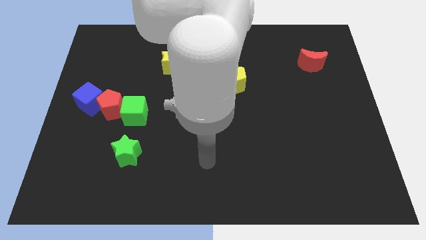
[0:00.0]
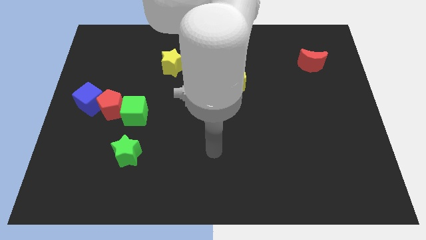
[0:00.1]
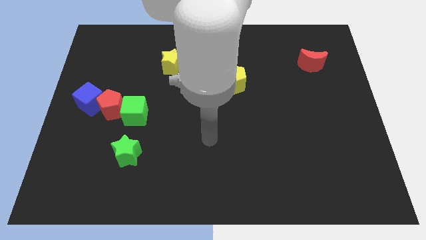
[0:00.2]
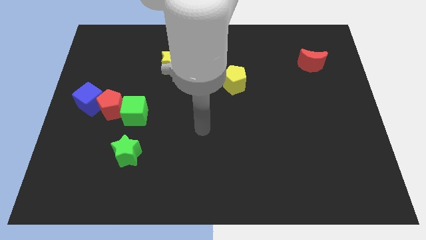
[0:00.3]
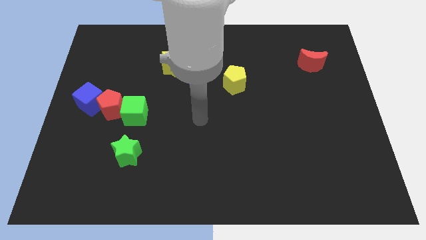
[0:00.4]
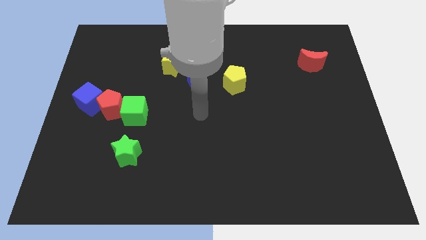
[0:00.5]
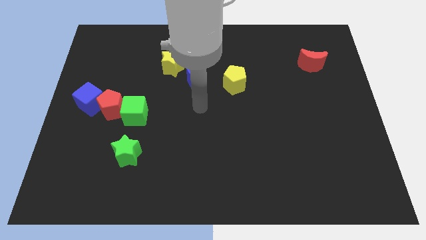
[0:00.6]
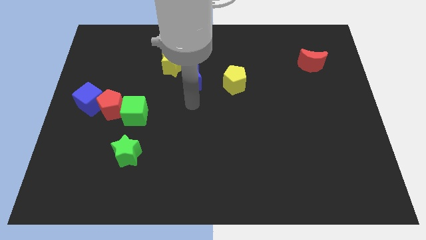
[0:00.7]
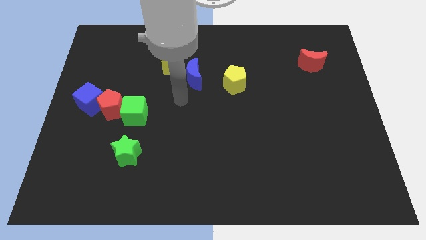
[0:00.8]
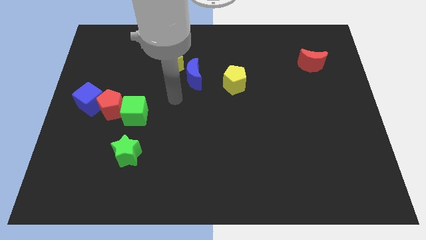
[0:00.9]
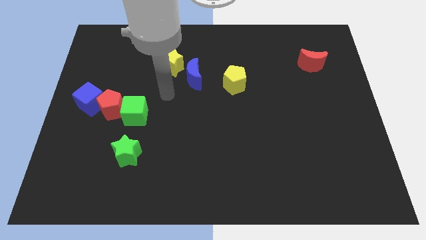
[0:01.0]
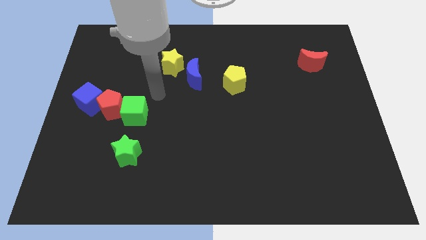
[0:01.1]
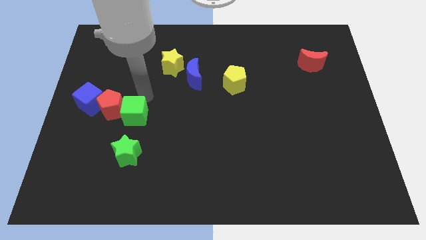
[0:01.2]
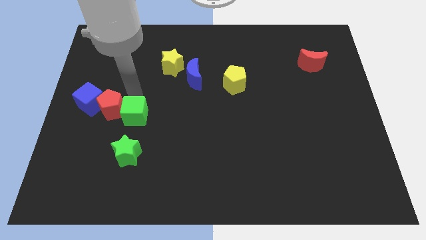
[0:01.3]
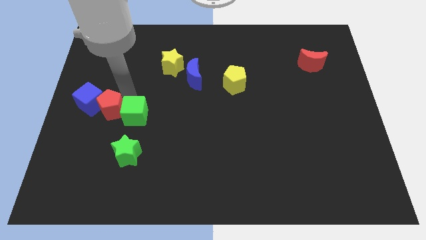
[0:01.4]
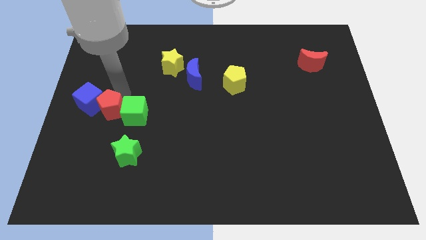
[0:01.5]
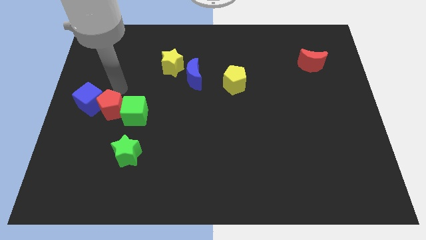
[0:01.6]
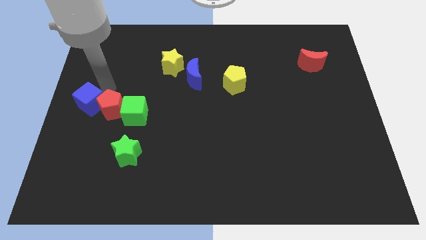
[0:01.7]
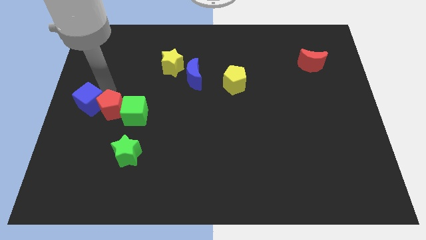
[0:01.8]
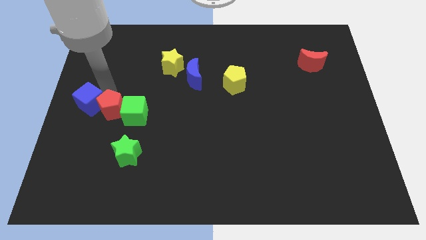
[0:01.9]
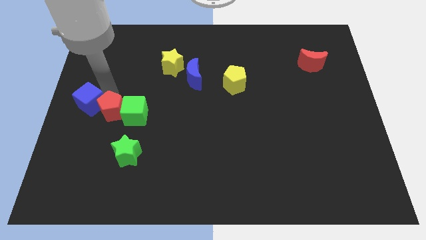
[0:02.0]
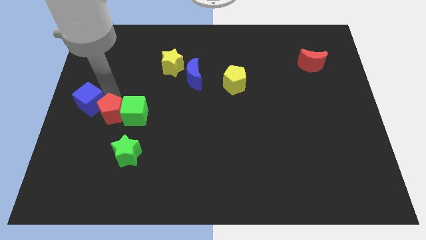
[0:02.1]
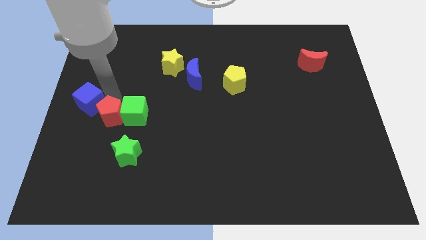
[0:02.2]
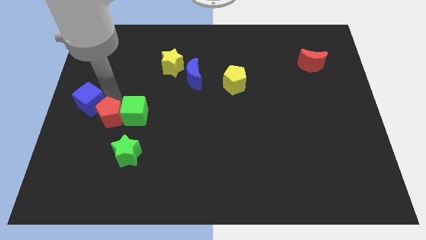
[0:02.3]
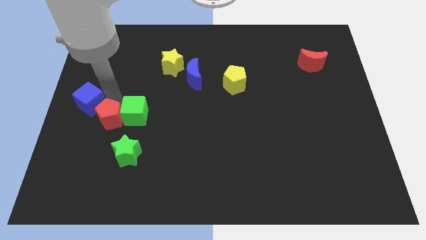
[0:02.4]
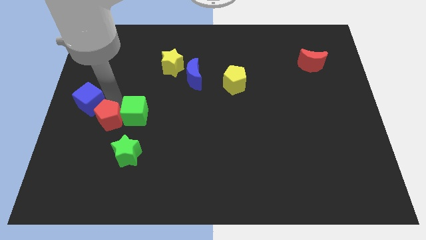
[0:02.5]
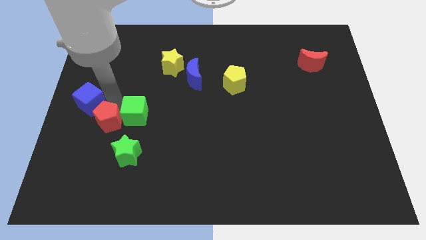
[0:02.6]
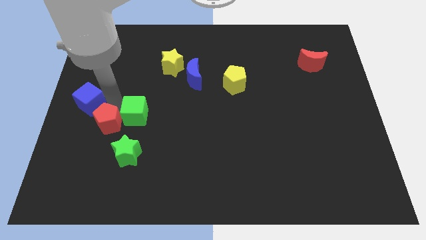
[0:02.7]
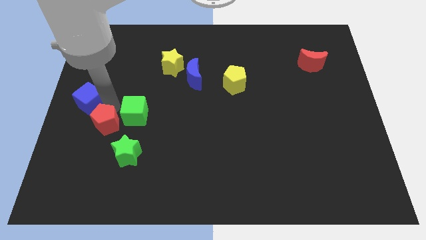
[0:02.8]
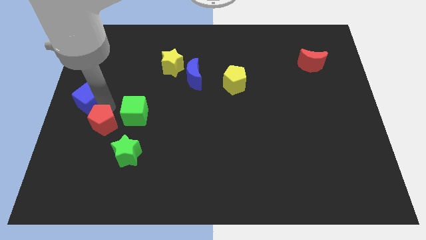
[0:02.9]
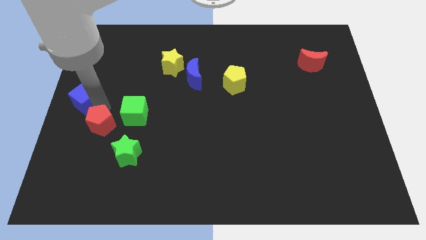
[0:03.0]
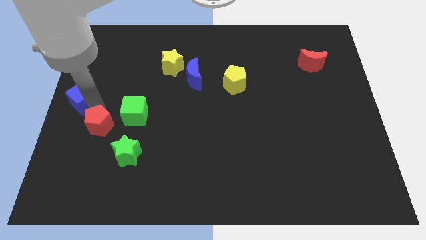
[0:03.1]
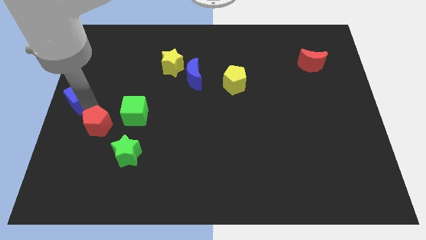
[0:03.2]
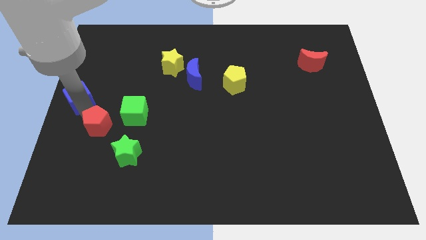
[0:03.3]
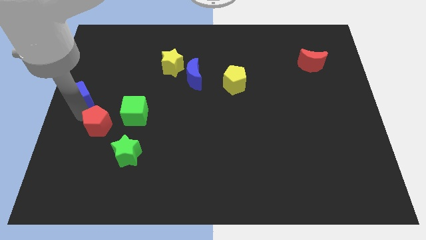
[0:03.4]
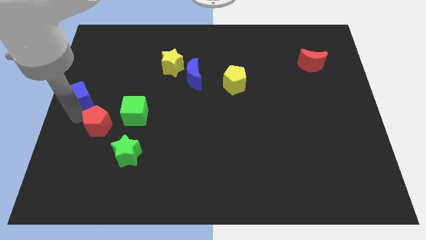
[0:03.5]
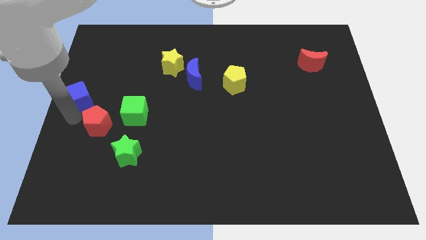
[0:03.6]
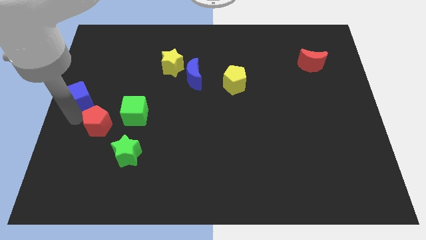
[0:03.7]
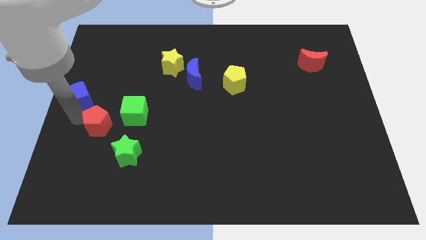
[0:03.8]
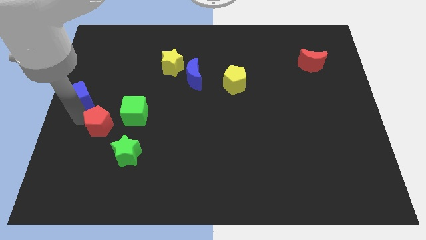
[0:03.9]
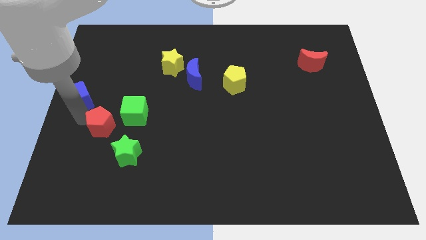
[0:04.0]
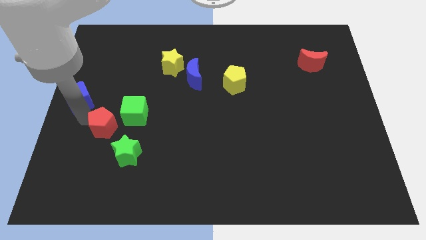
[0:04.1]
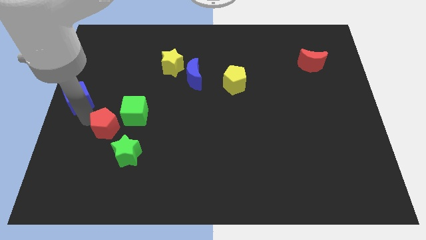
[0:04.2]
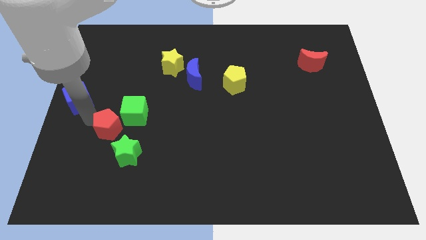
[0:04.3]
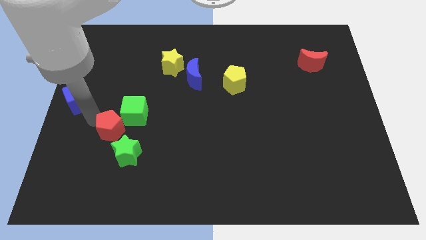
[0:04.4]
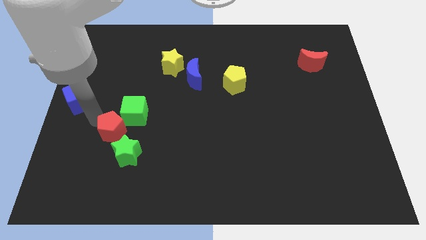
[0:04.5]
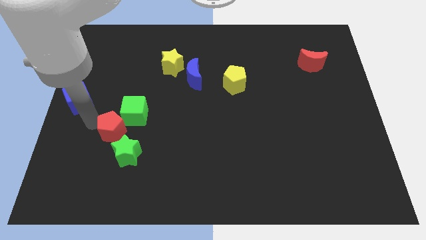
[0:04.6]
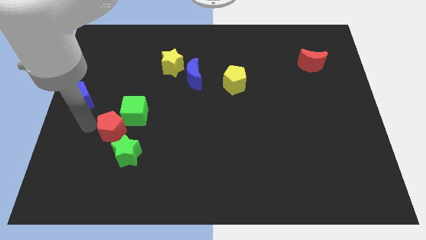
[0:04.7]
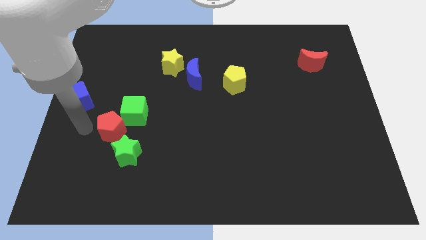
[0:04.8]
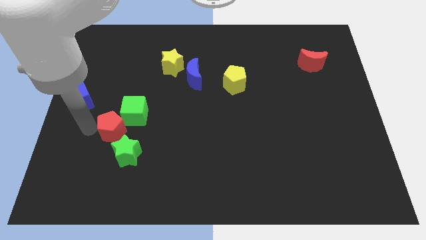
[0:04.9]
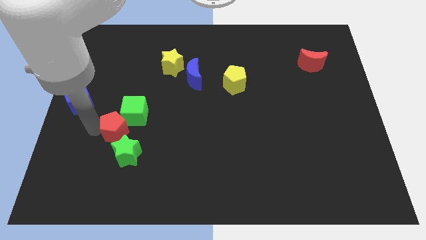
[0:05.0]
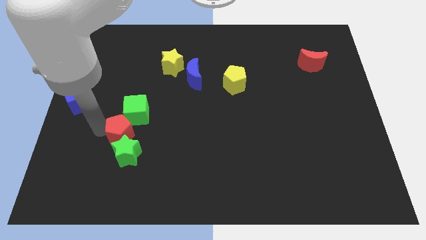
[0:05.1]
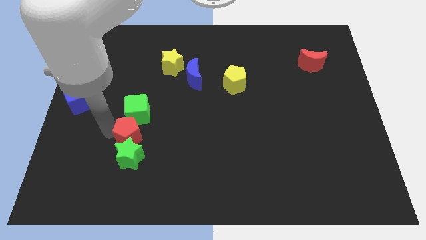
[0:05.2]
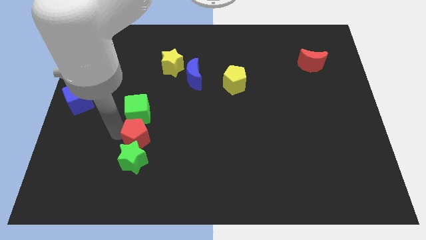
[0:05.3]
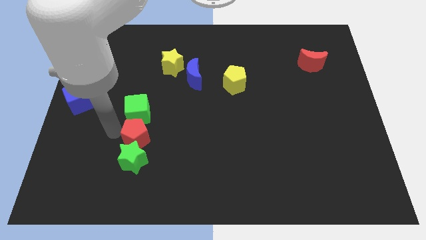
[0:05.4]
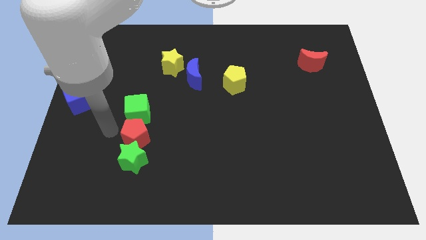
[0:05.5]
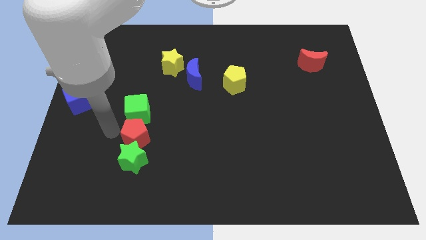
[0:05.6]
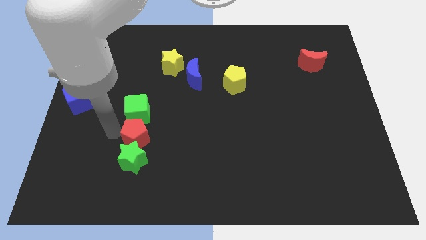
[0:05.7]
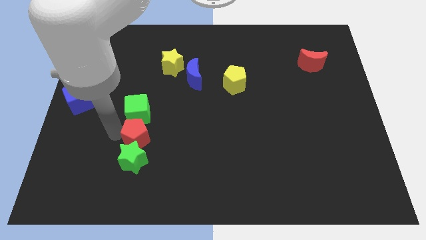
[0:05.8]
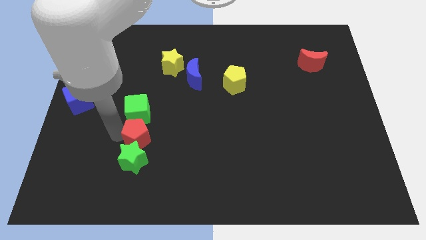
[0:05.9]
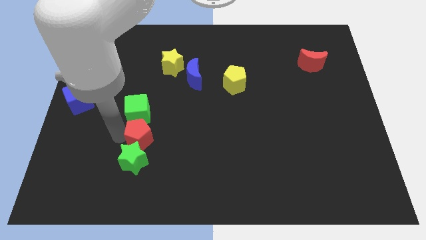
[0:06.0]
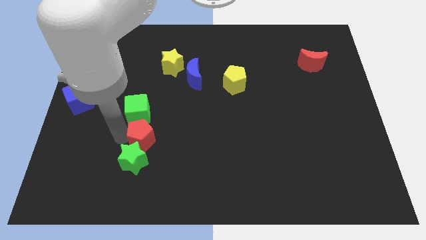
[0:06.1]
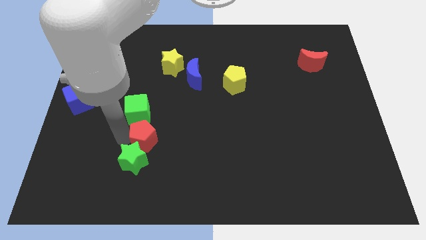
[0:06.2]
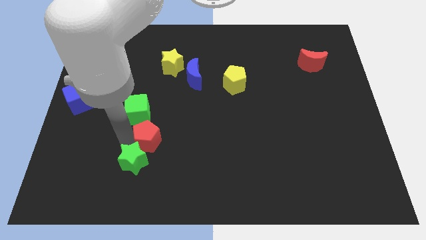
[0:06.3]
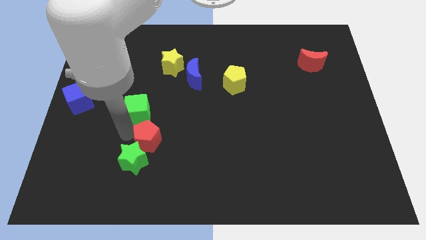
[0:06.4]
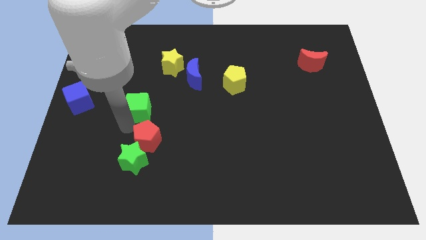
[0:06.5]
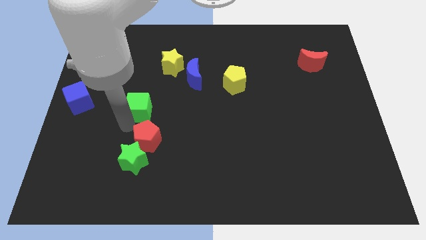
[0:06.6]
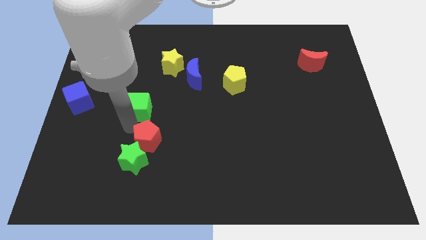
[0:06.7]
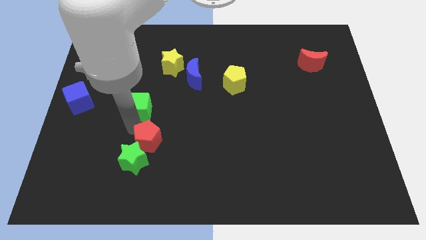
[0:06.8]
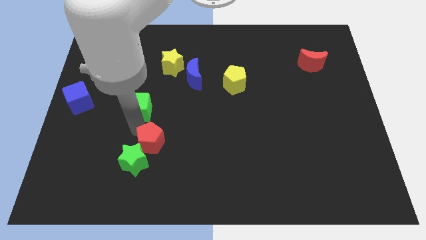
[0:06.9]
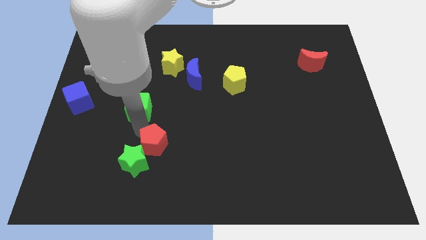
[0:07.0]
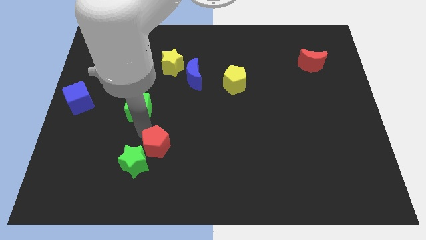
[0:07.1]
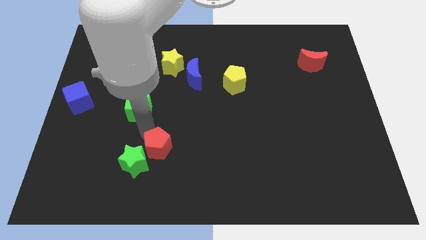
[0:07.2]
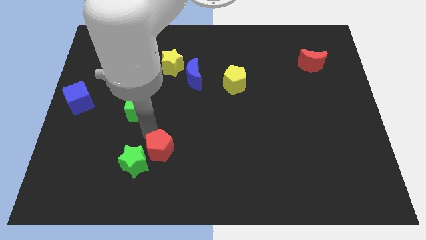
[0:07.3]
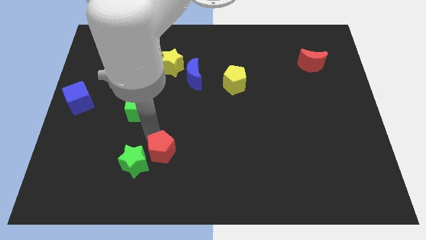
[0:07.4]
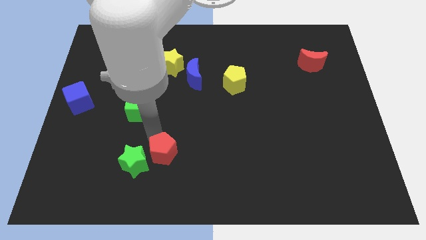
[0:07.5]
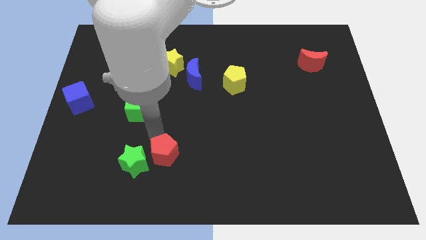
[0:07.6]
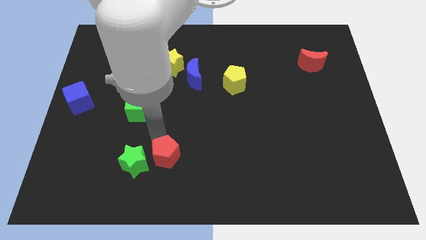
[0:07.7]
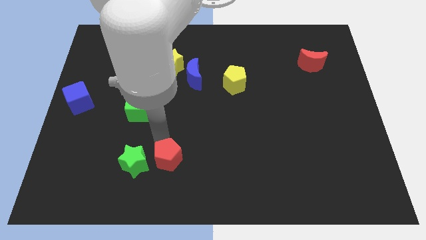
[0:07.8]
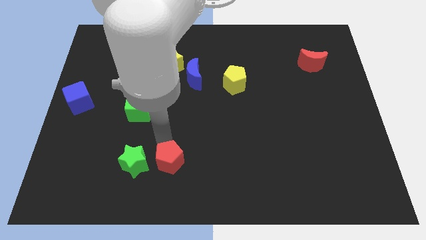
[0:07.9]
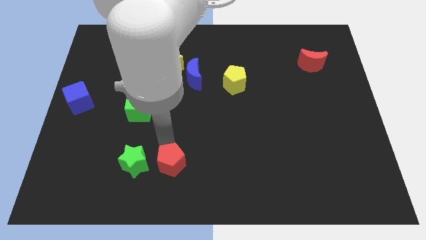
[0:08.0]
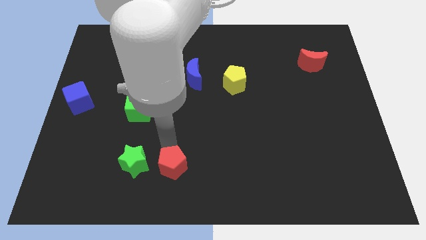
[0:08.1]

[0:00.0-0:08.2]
push the red pentagon to the bottom side
